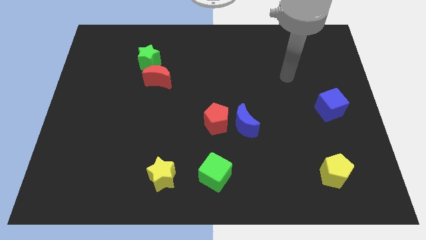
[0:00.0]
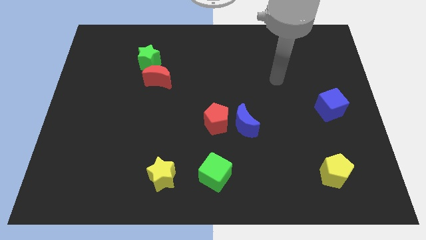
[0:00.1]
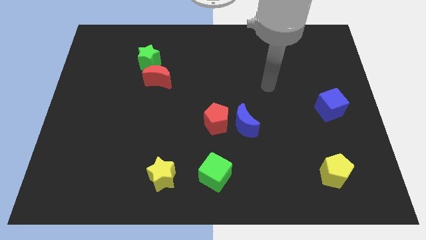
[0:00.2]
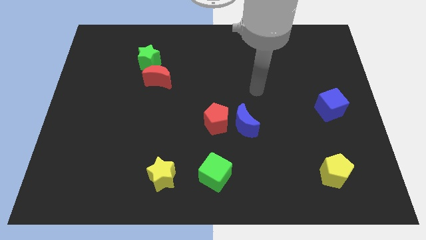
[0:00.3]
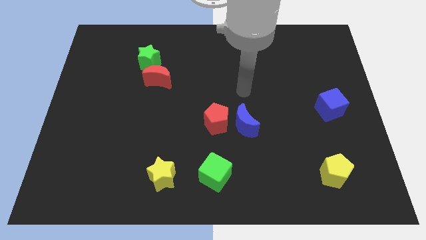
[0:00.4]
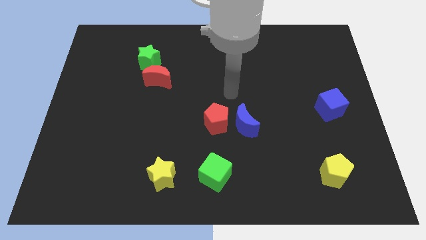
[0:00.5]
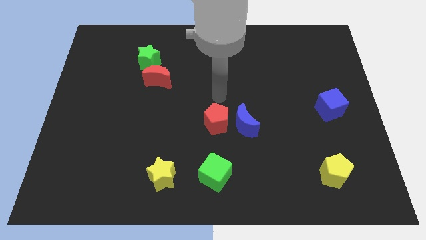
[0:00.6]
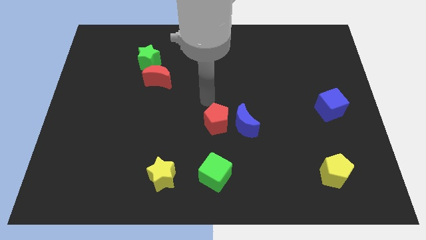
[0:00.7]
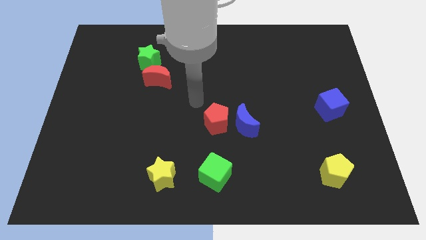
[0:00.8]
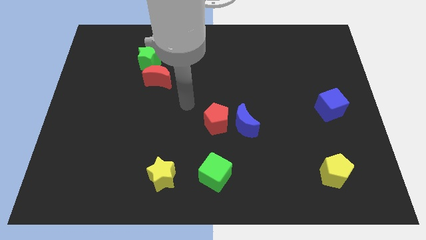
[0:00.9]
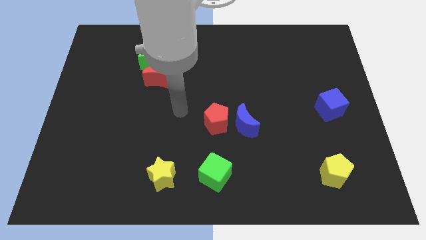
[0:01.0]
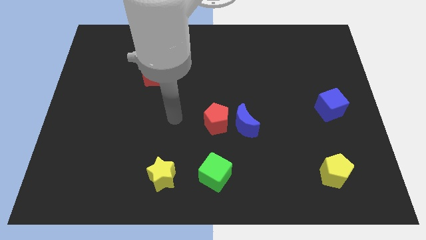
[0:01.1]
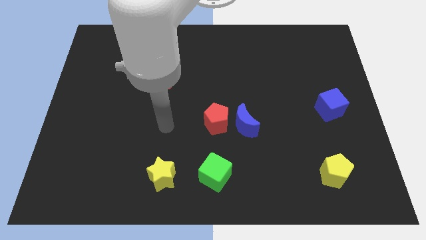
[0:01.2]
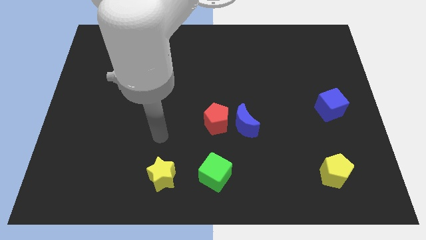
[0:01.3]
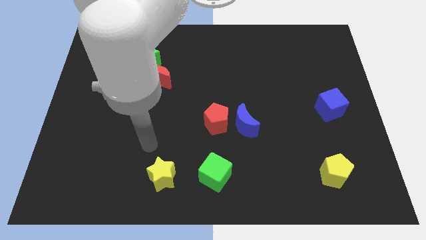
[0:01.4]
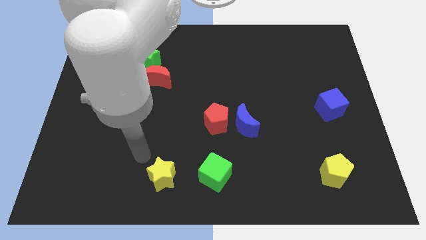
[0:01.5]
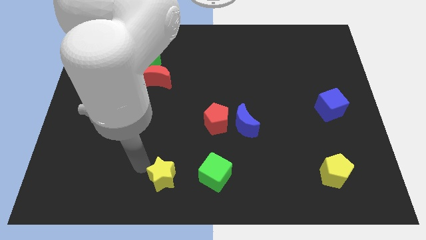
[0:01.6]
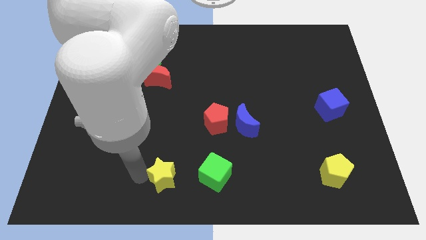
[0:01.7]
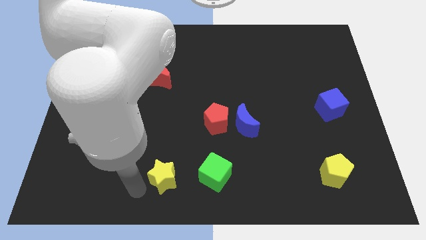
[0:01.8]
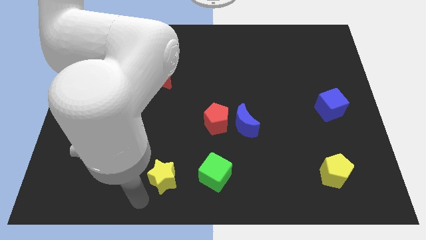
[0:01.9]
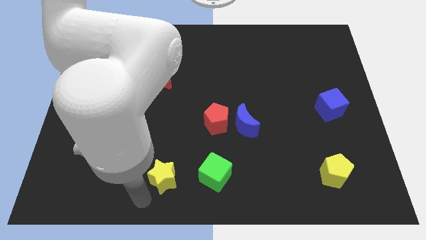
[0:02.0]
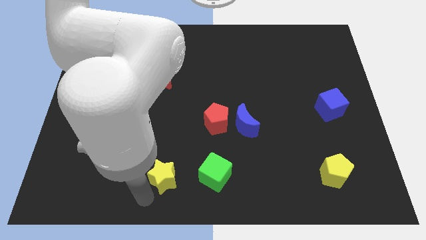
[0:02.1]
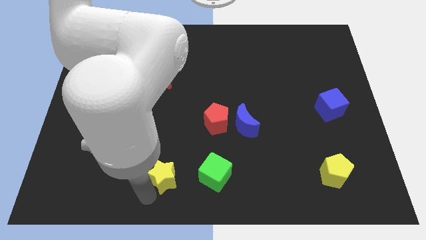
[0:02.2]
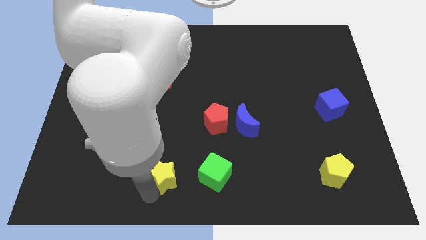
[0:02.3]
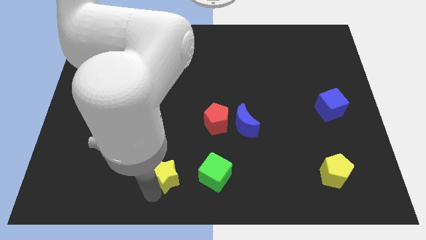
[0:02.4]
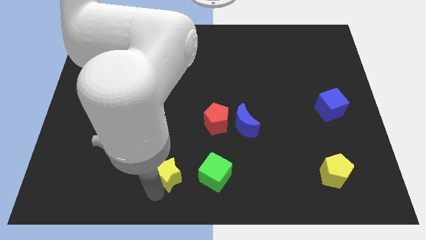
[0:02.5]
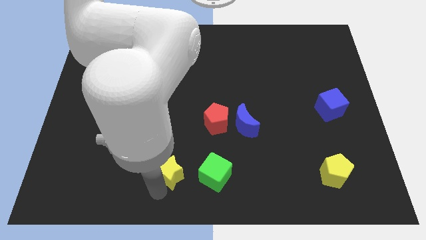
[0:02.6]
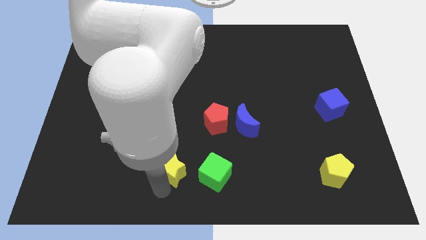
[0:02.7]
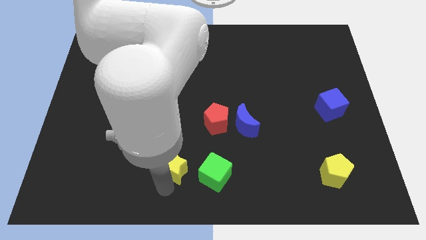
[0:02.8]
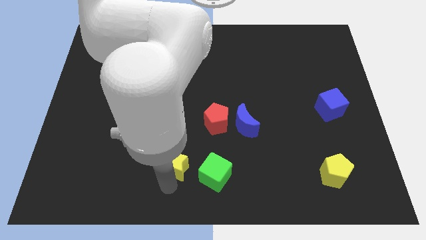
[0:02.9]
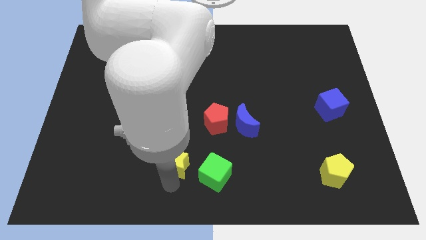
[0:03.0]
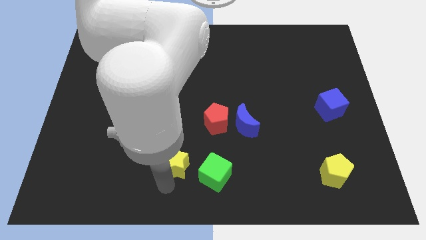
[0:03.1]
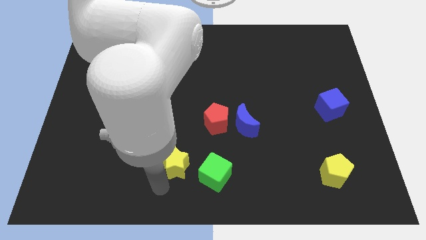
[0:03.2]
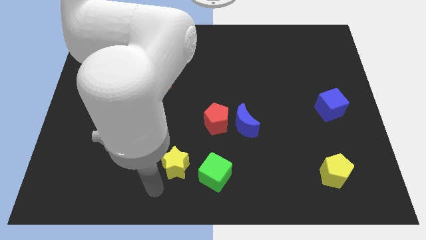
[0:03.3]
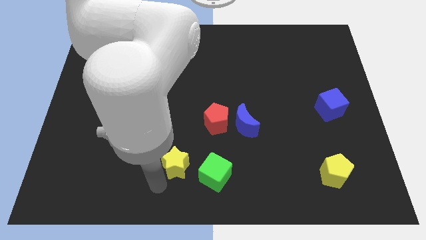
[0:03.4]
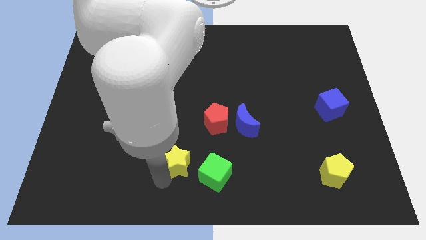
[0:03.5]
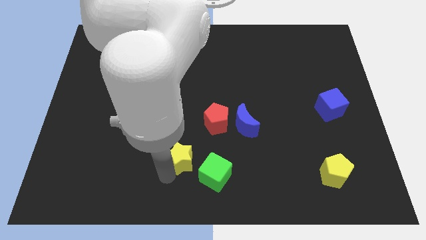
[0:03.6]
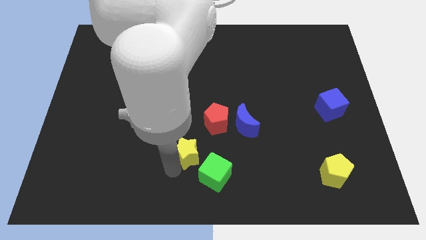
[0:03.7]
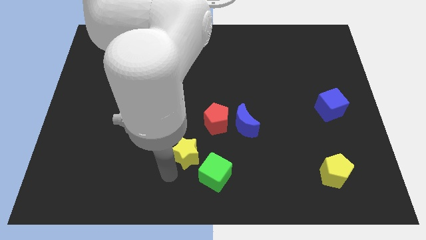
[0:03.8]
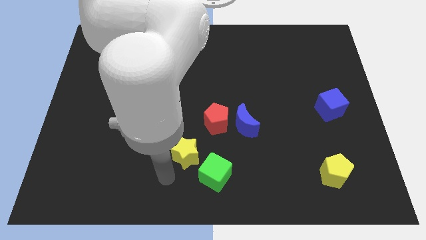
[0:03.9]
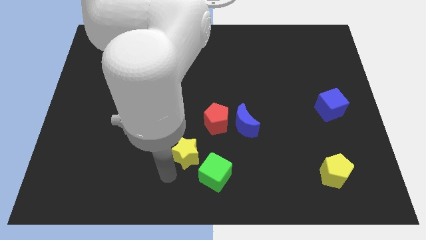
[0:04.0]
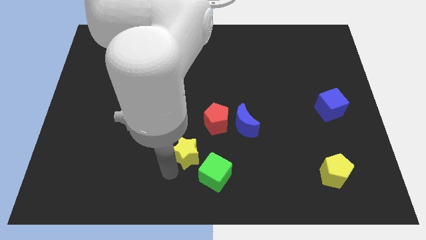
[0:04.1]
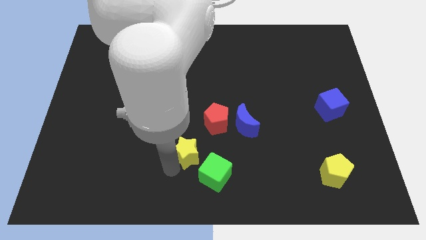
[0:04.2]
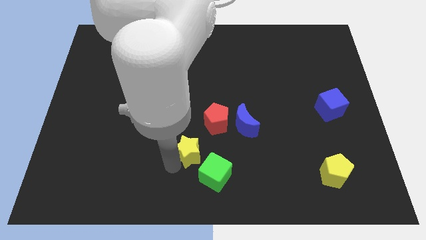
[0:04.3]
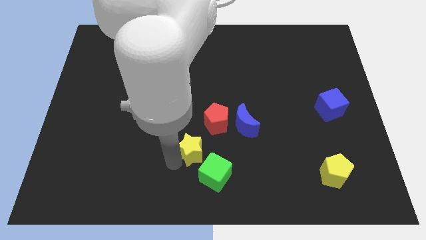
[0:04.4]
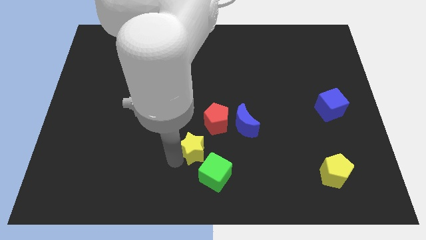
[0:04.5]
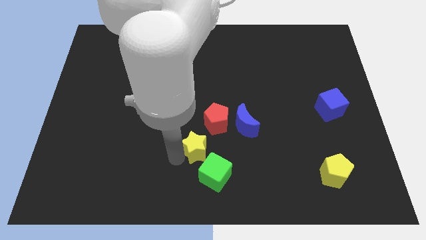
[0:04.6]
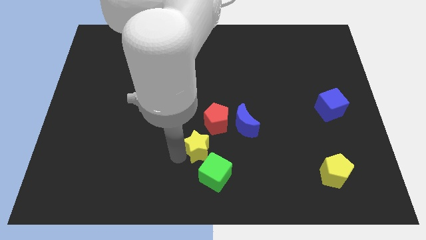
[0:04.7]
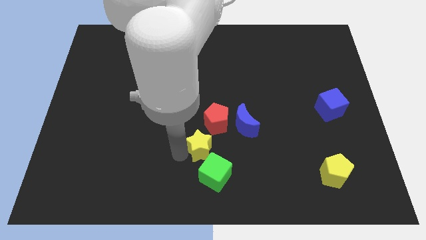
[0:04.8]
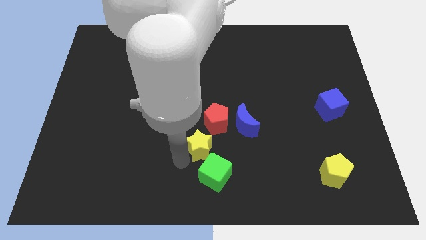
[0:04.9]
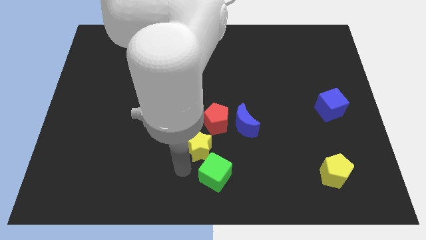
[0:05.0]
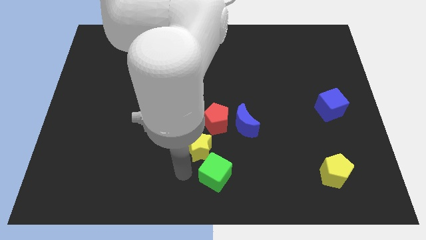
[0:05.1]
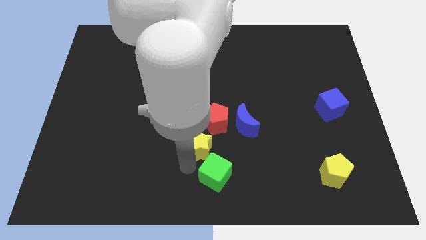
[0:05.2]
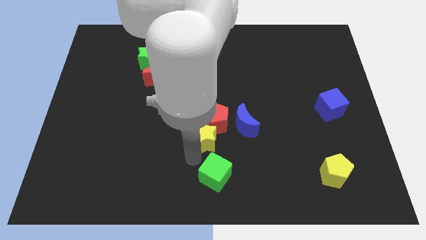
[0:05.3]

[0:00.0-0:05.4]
push the yellow star towards the red pentagon

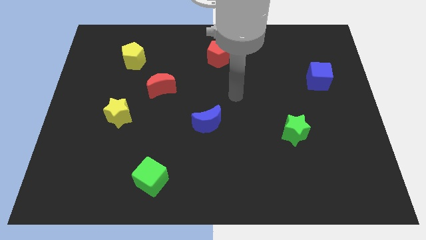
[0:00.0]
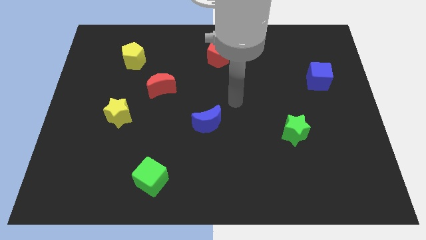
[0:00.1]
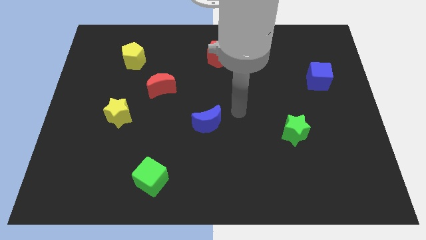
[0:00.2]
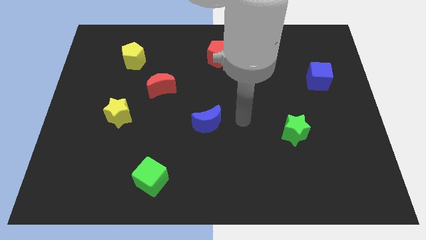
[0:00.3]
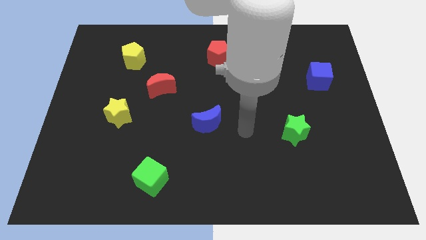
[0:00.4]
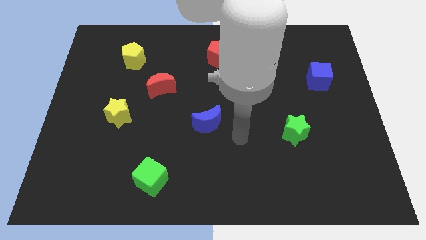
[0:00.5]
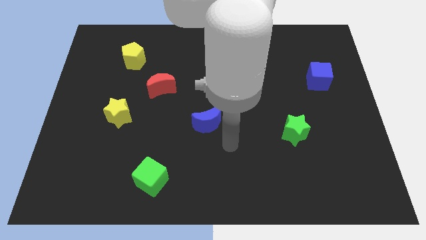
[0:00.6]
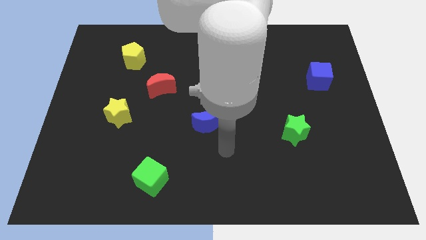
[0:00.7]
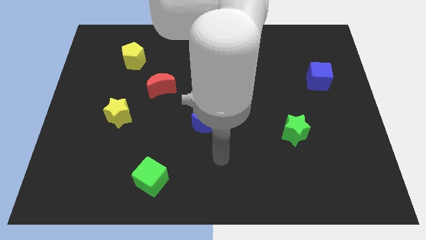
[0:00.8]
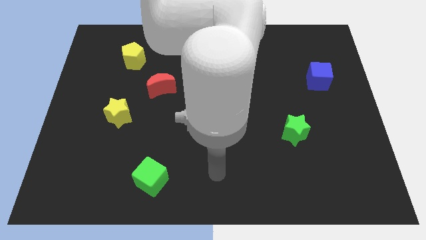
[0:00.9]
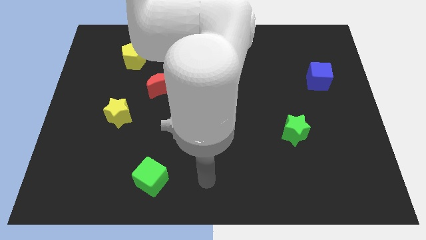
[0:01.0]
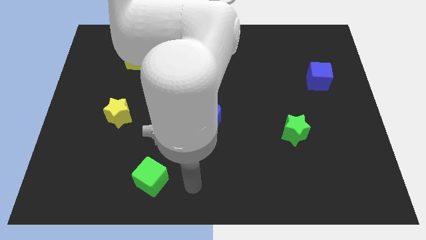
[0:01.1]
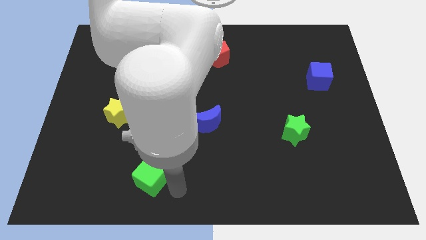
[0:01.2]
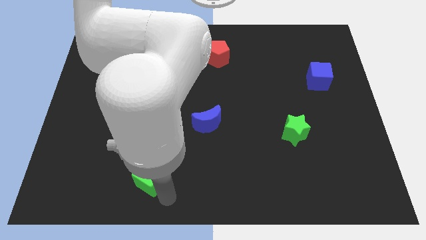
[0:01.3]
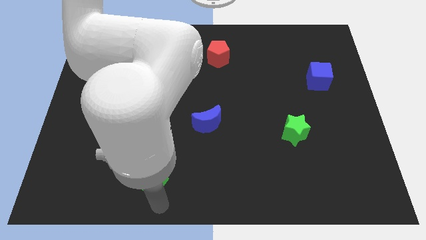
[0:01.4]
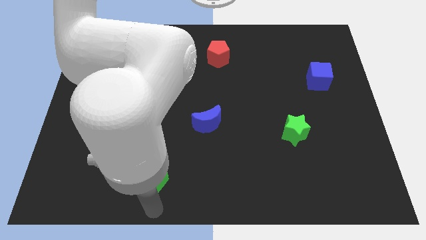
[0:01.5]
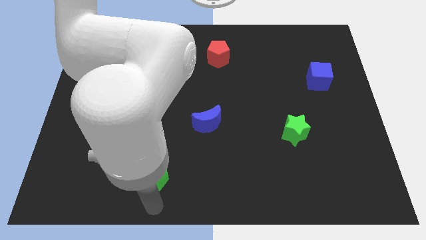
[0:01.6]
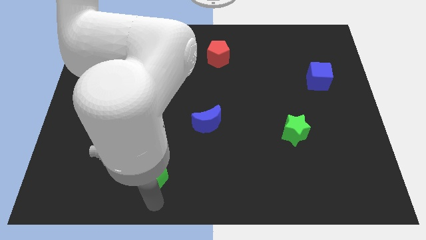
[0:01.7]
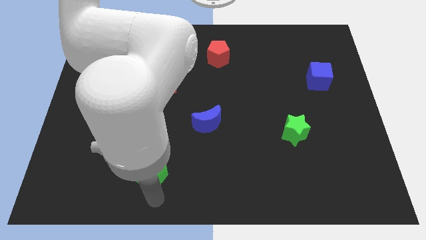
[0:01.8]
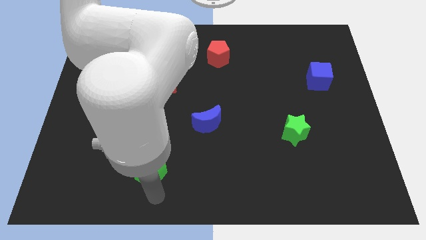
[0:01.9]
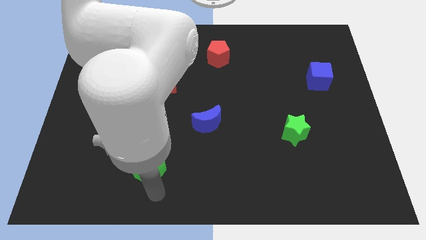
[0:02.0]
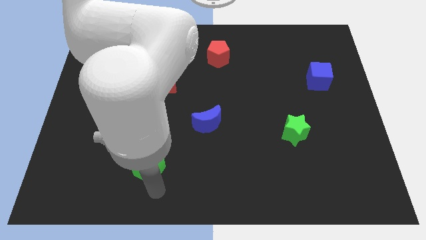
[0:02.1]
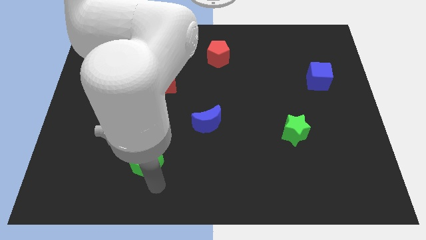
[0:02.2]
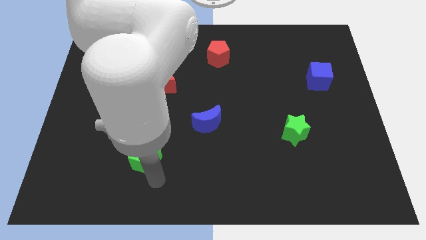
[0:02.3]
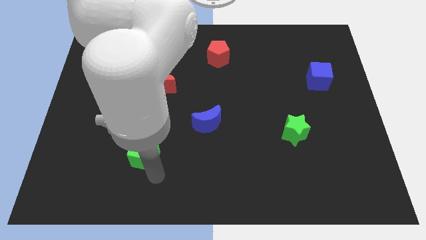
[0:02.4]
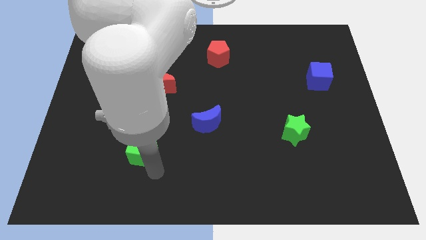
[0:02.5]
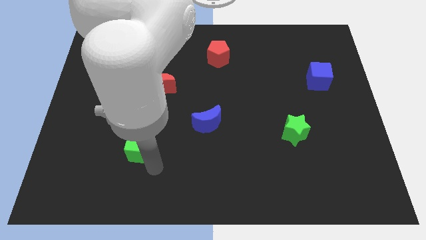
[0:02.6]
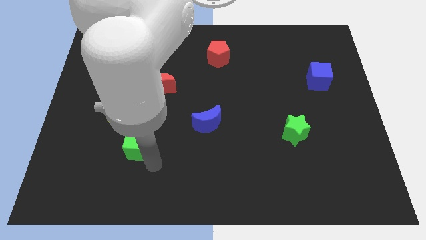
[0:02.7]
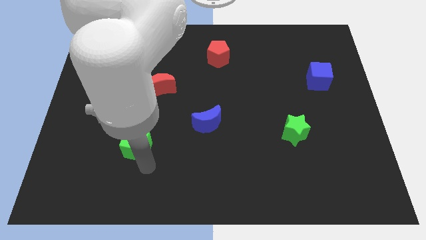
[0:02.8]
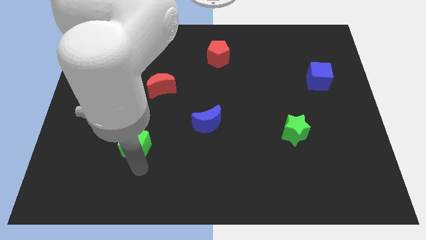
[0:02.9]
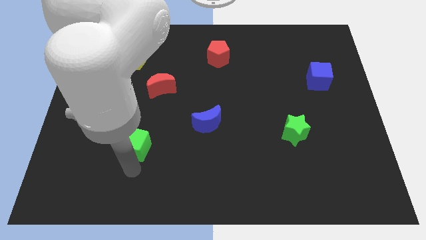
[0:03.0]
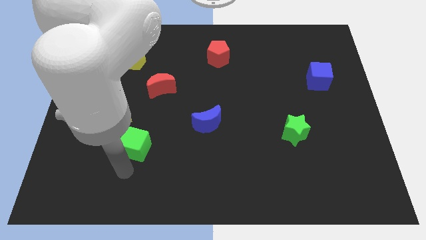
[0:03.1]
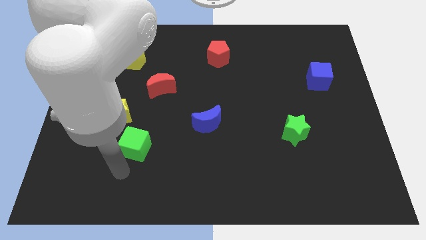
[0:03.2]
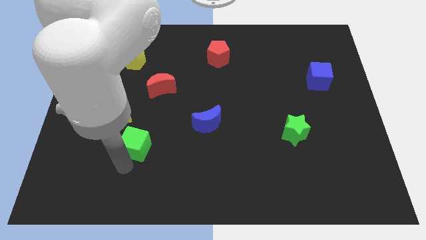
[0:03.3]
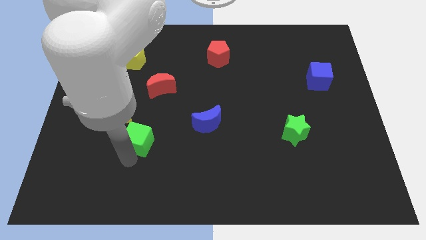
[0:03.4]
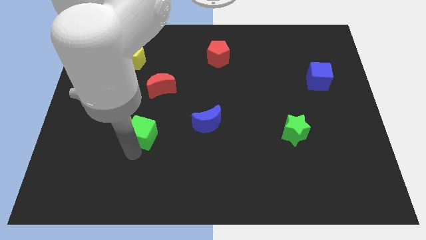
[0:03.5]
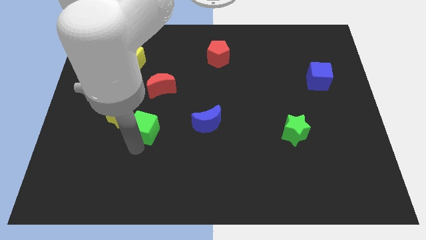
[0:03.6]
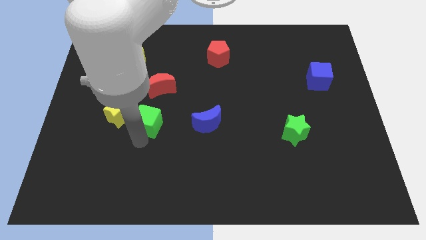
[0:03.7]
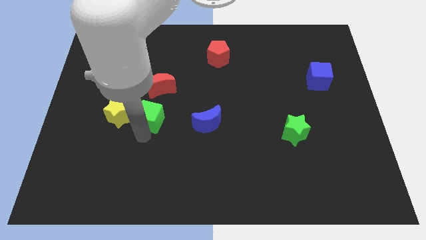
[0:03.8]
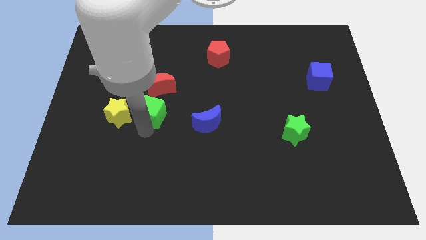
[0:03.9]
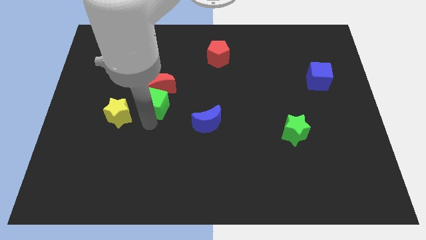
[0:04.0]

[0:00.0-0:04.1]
push the green cube close to the red moon
